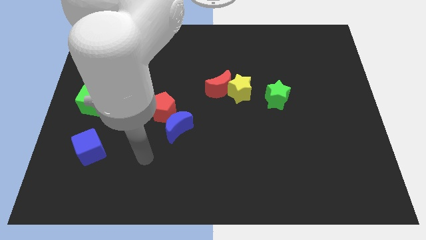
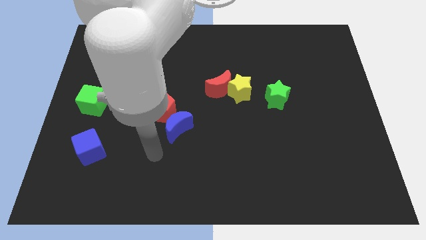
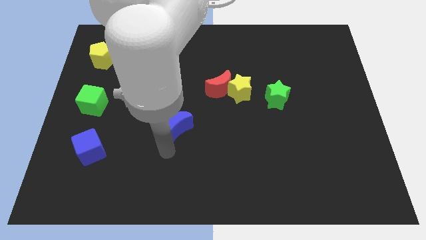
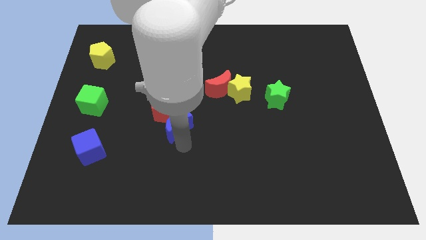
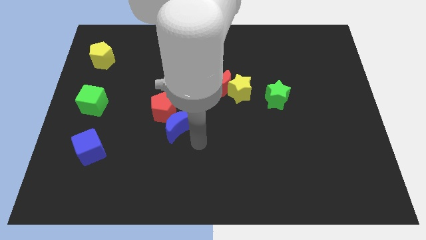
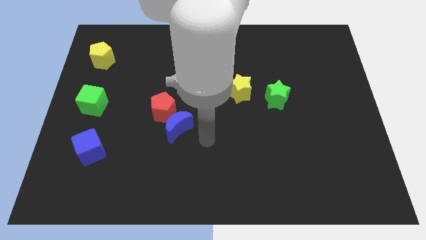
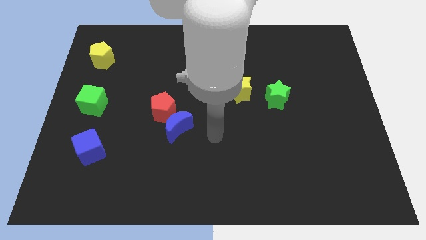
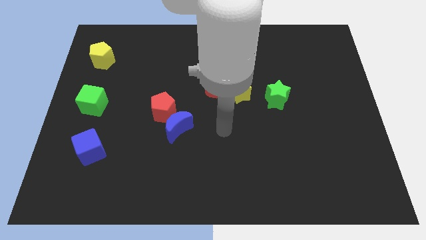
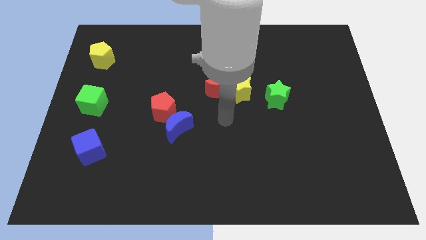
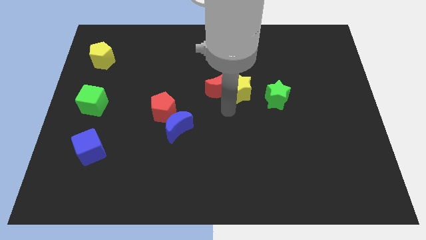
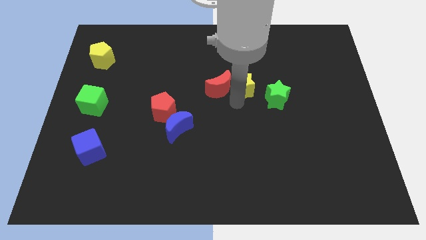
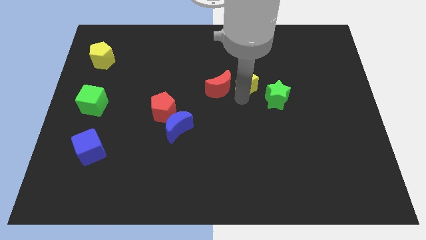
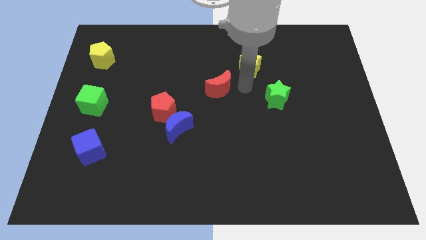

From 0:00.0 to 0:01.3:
move the red moon away from the yellow star

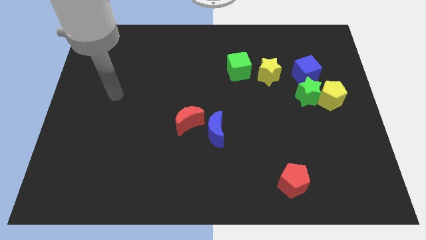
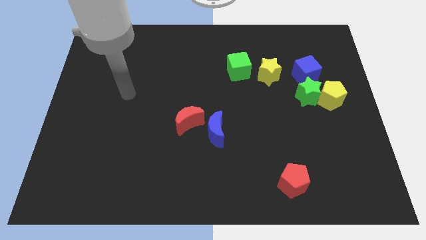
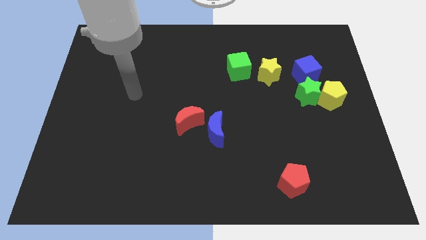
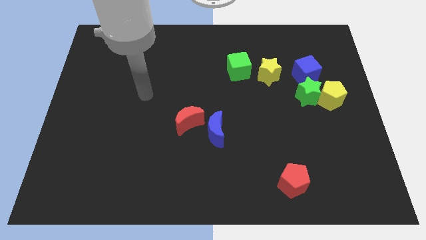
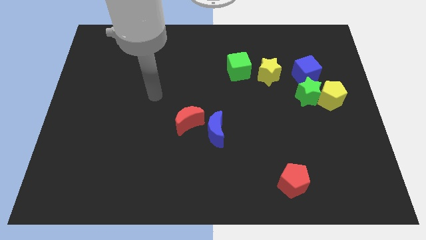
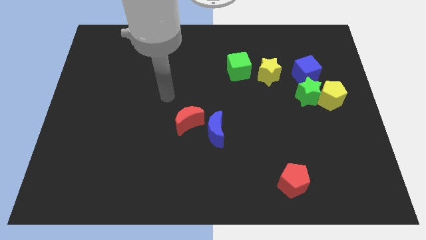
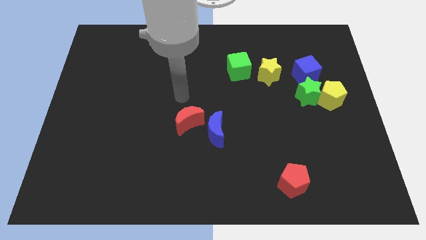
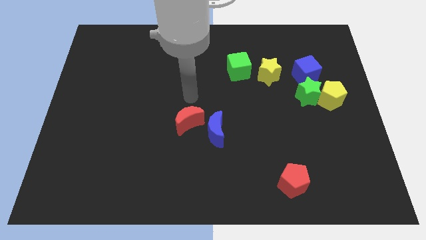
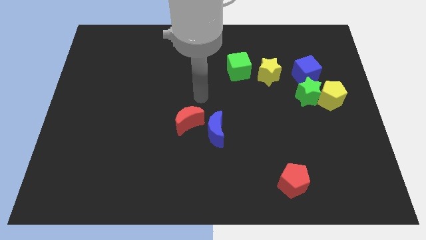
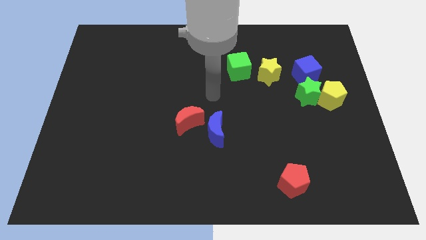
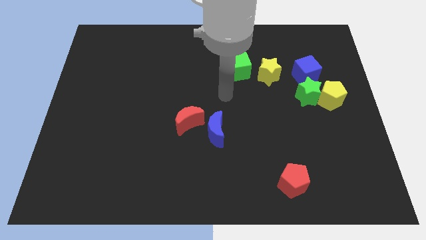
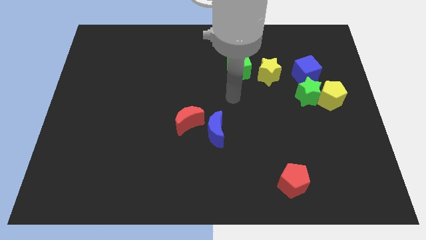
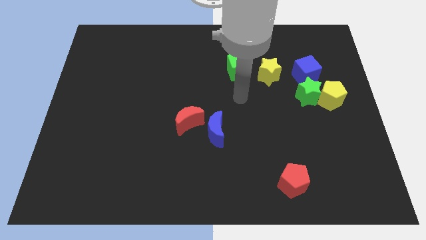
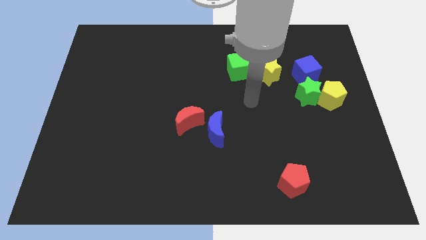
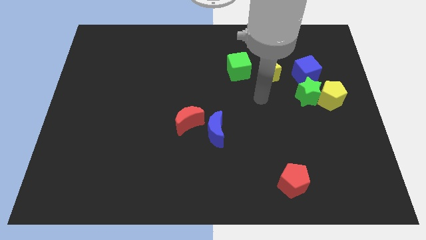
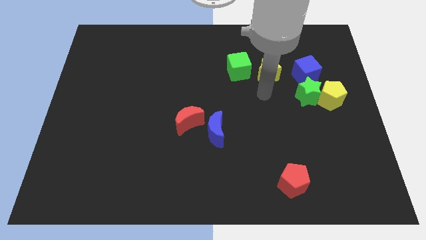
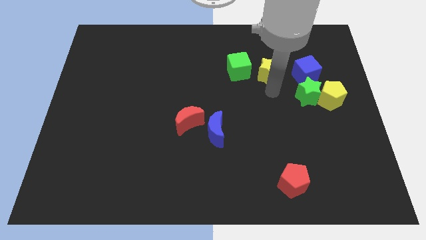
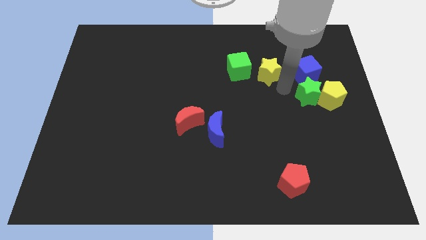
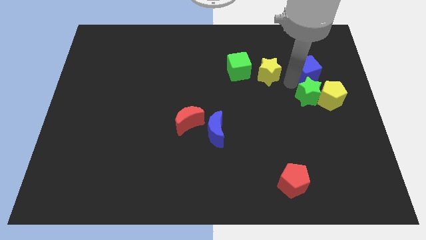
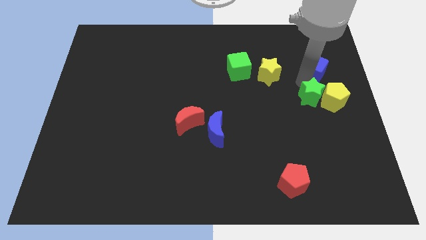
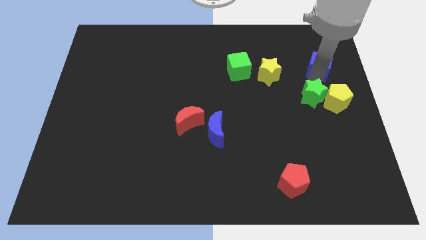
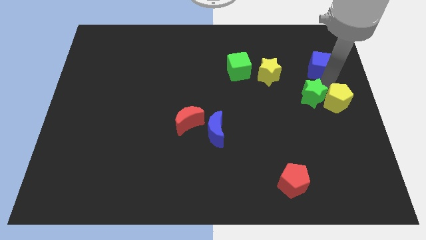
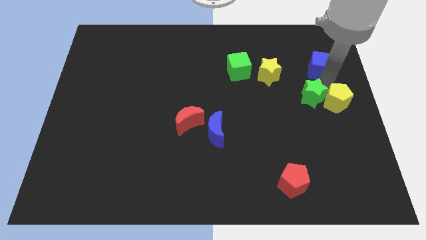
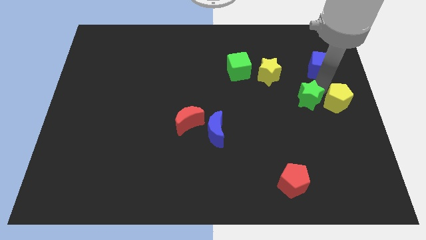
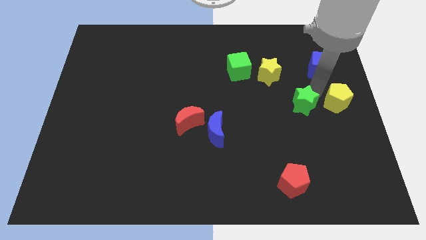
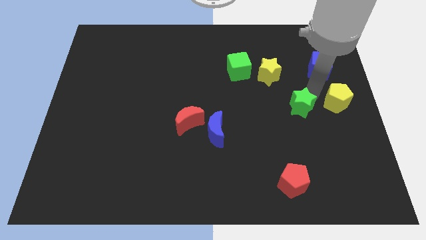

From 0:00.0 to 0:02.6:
pull the green star apart from the yellow pentagon and blue cube

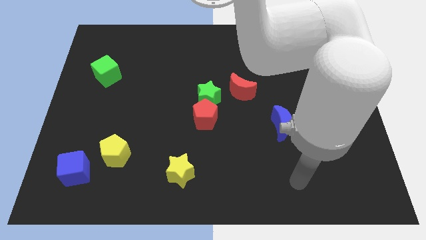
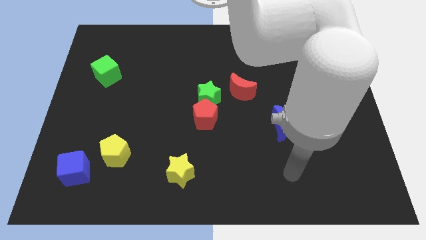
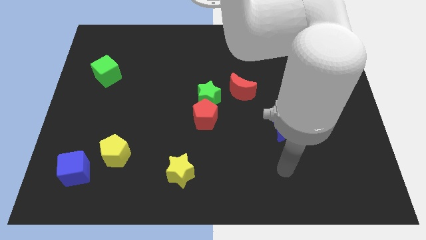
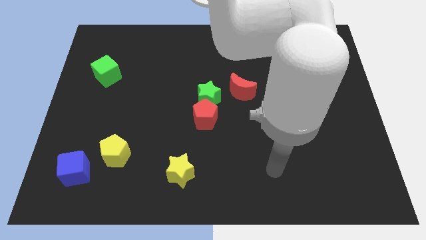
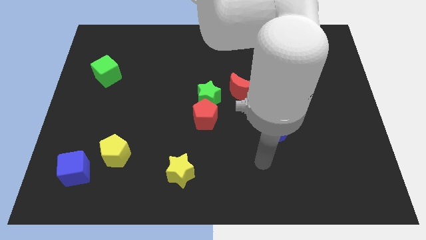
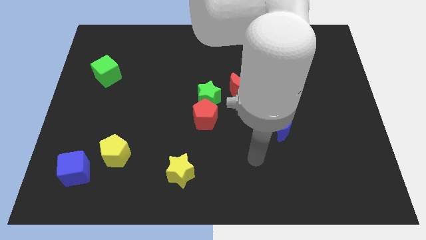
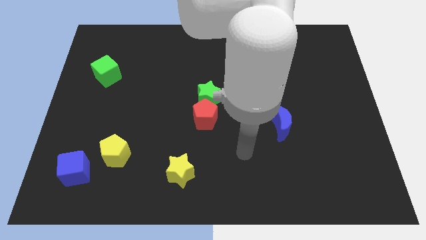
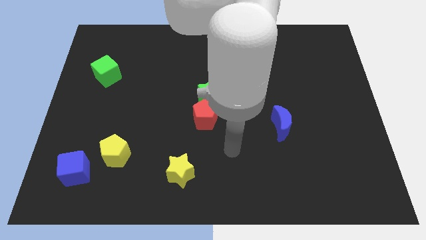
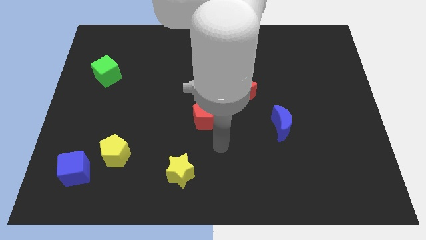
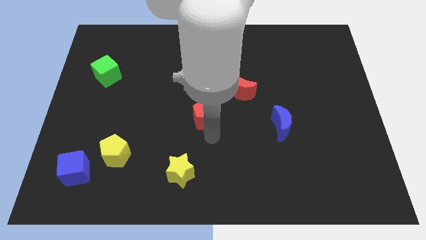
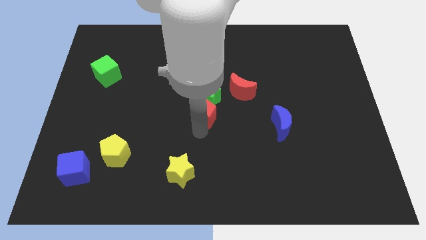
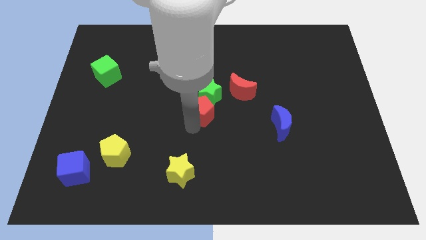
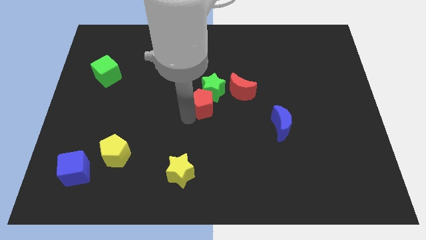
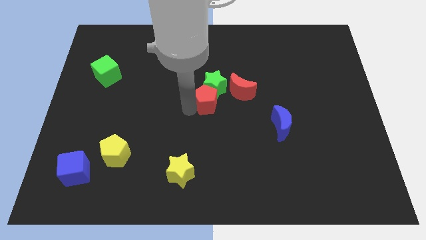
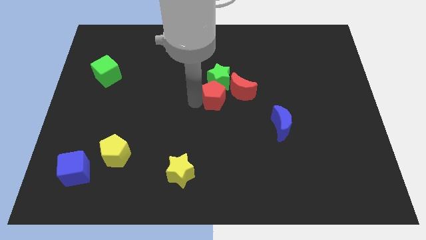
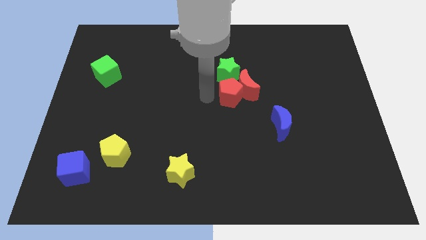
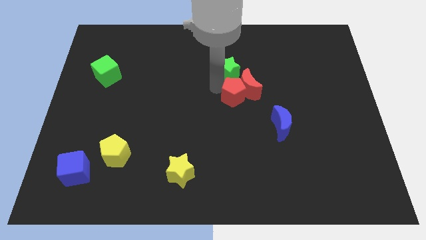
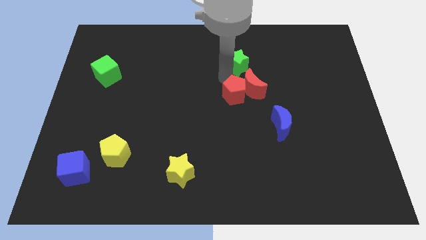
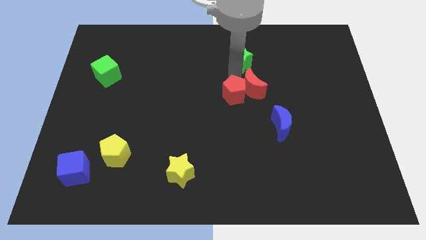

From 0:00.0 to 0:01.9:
pull the red pentagon apart from the green star

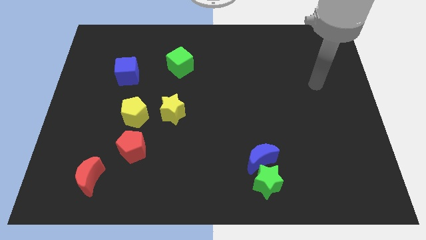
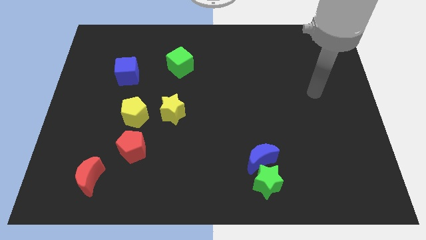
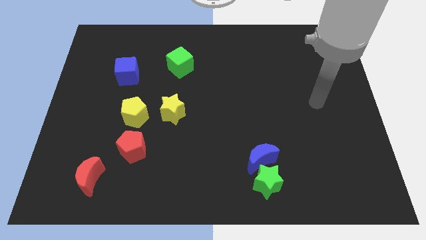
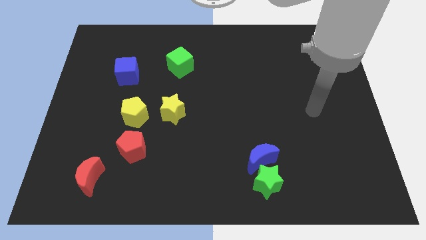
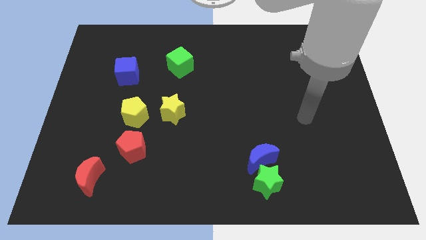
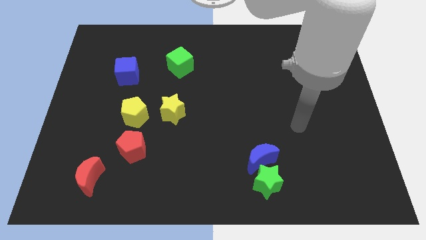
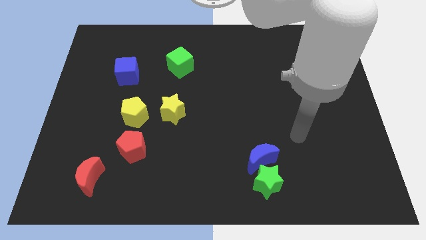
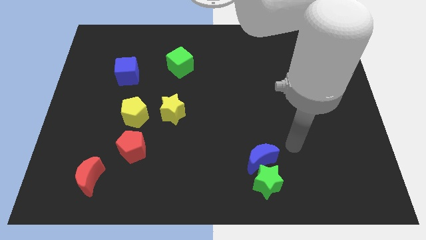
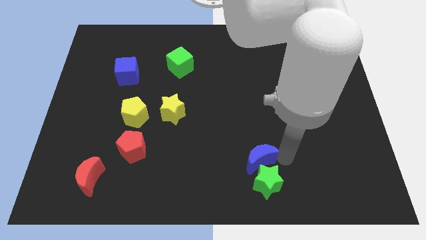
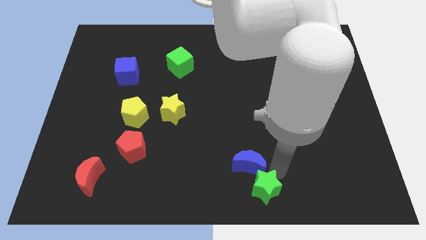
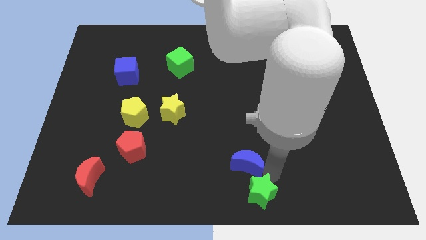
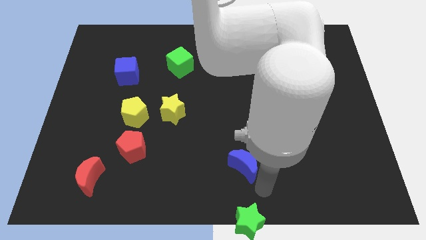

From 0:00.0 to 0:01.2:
separate the blue moon from the green star

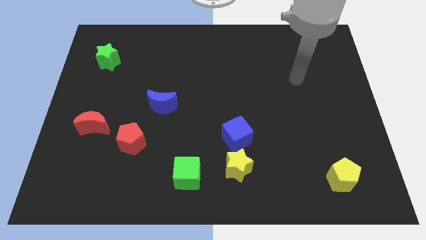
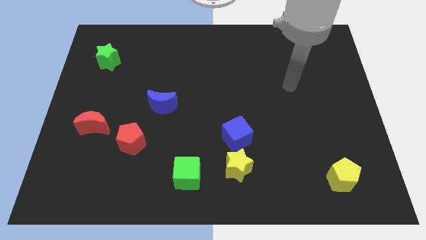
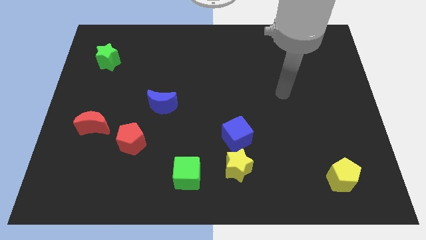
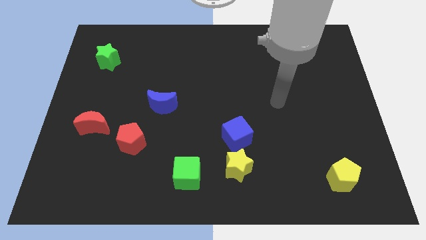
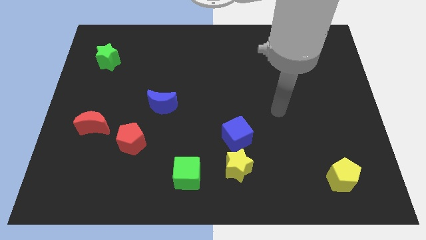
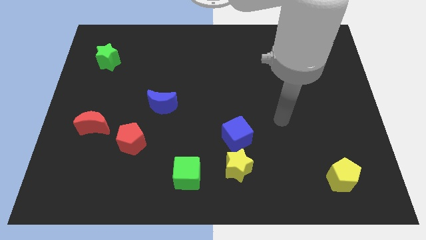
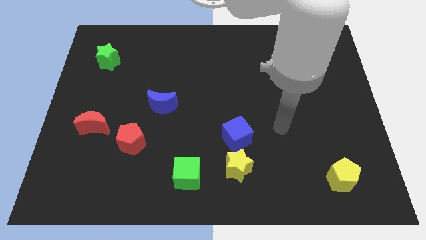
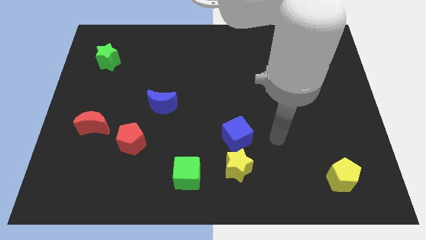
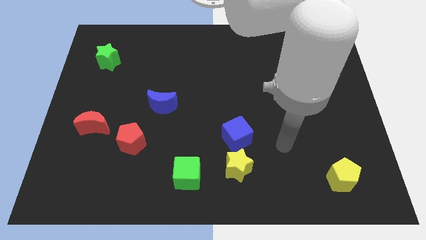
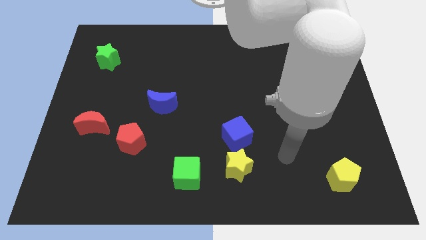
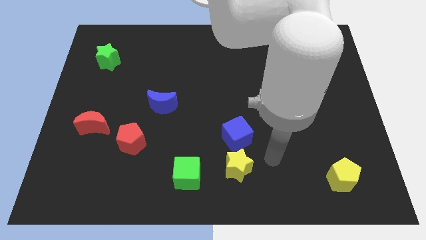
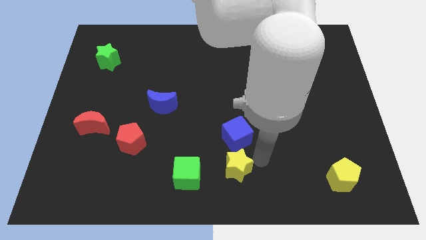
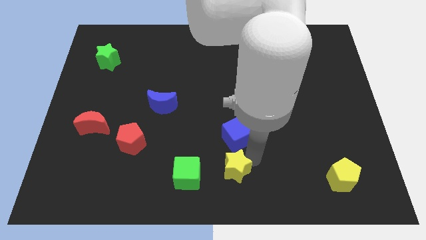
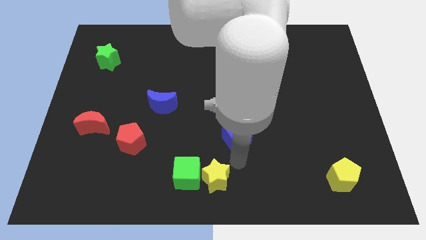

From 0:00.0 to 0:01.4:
separate the blue cube from the yellow star

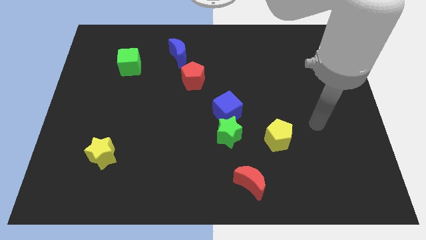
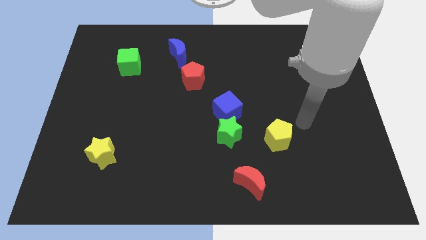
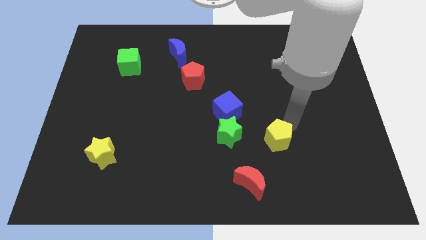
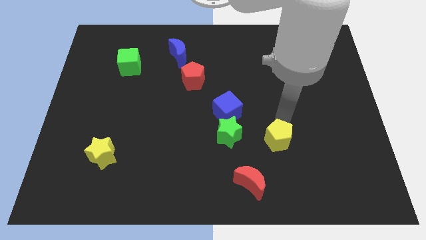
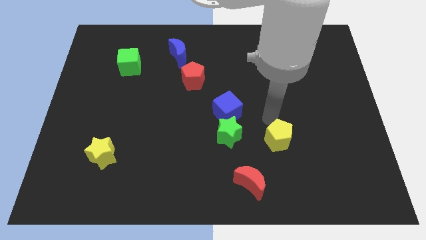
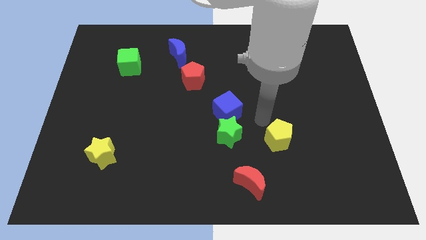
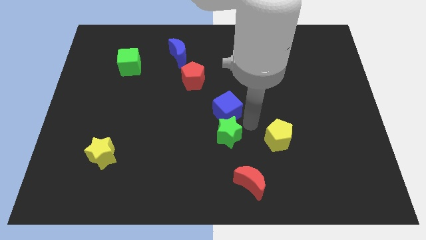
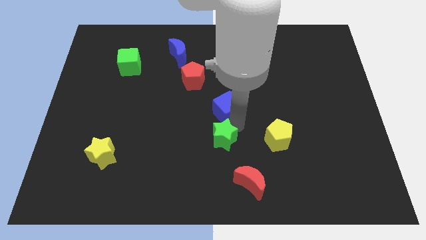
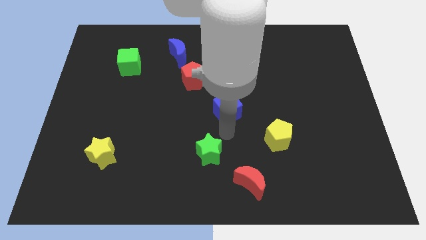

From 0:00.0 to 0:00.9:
move the blue cube away from the green star
